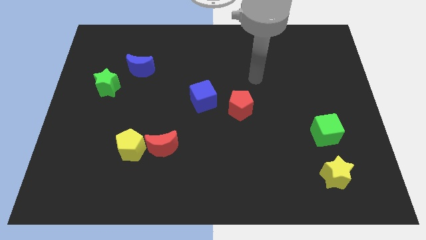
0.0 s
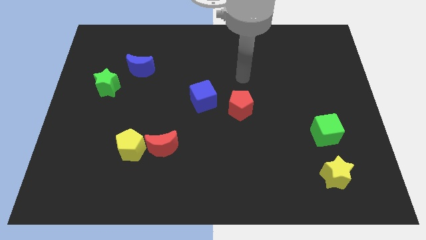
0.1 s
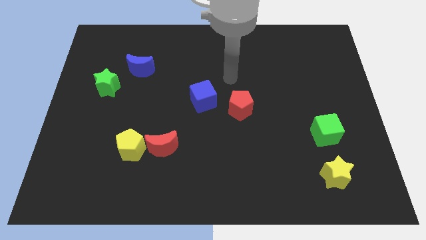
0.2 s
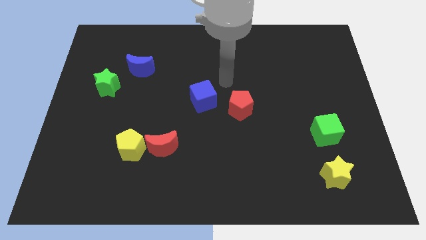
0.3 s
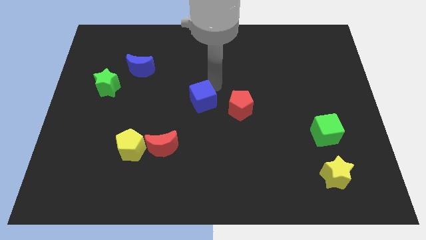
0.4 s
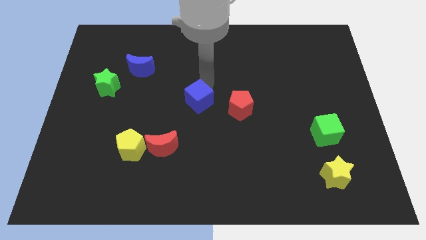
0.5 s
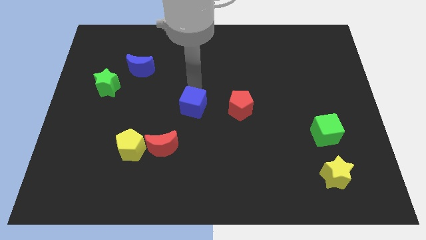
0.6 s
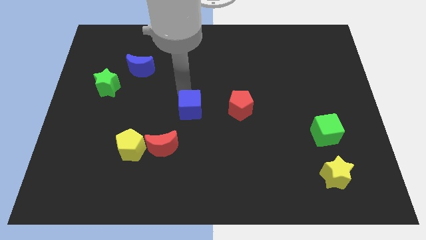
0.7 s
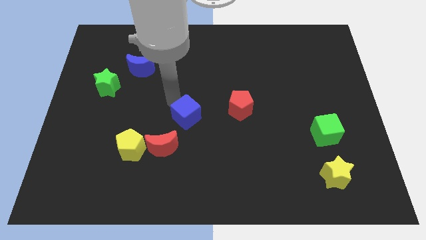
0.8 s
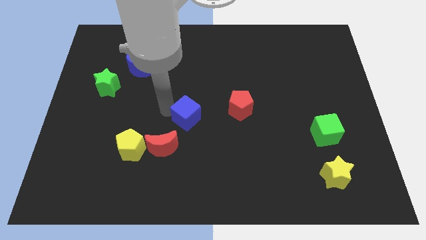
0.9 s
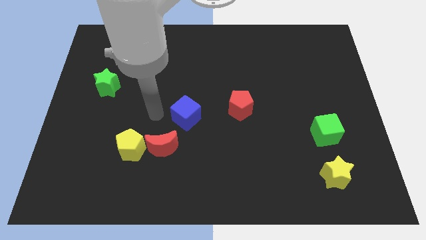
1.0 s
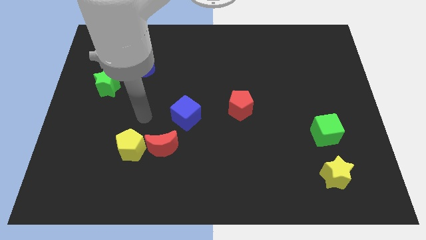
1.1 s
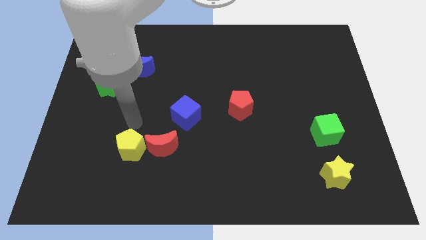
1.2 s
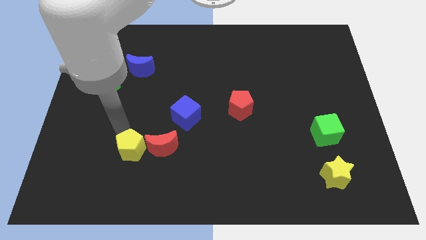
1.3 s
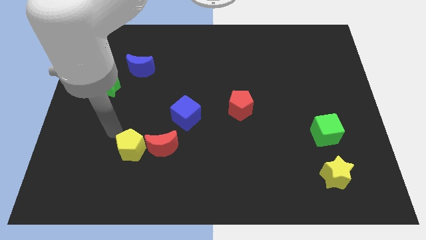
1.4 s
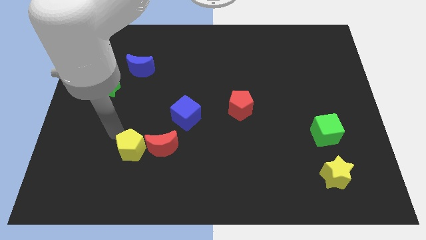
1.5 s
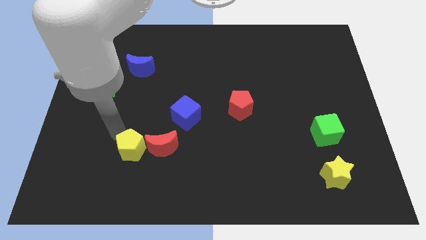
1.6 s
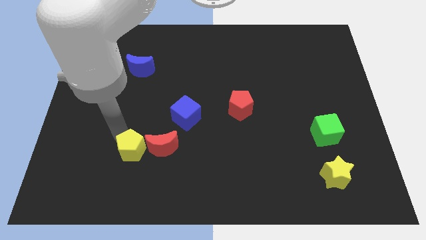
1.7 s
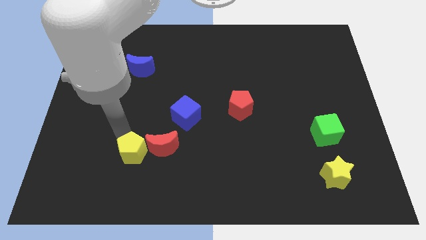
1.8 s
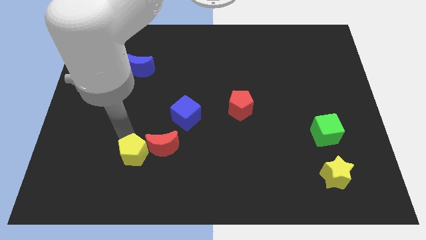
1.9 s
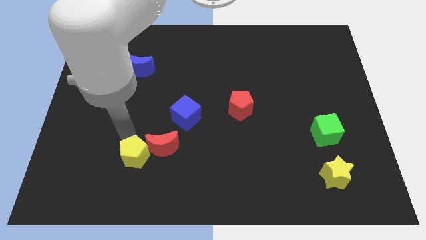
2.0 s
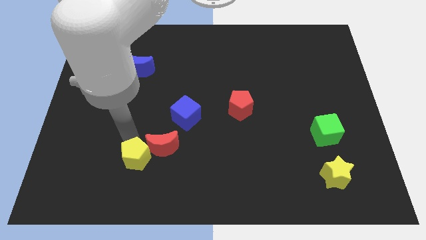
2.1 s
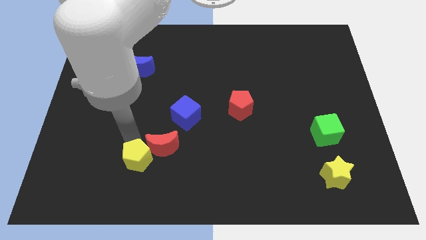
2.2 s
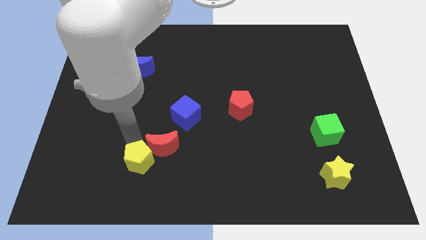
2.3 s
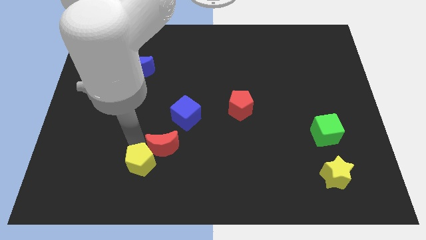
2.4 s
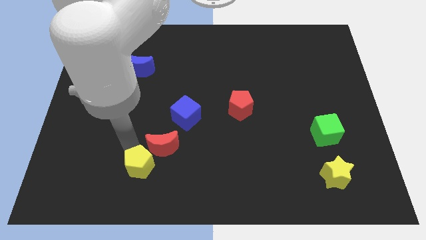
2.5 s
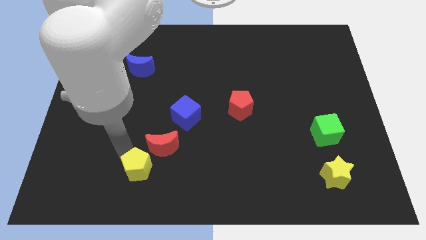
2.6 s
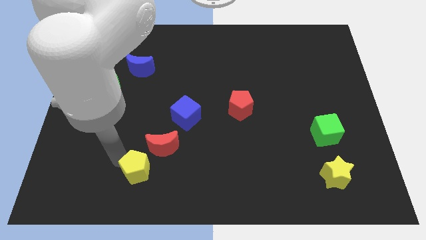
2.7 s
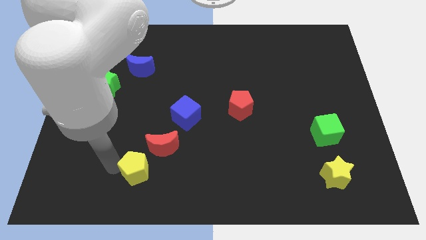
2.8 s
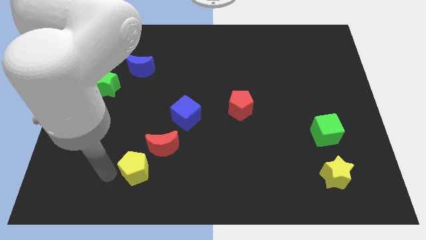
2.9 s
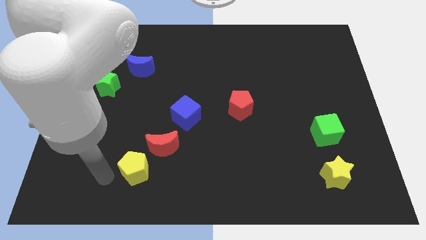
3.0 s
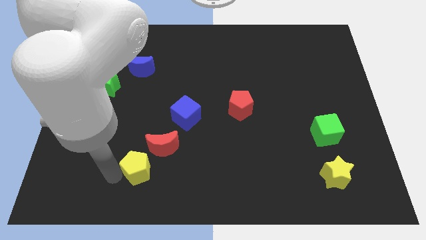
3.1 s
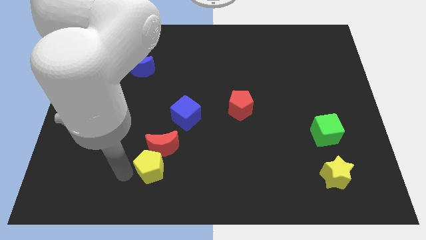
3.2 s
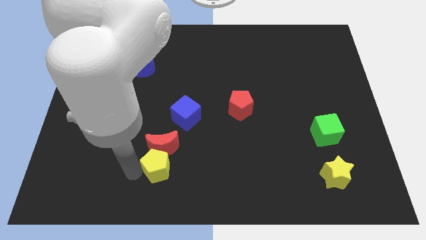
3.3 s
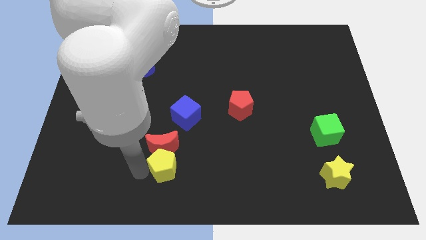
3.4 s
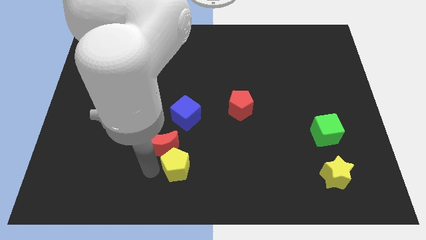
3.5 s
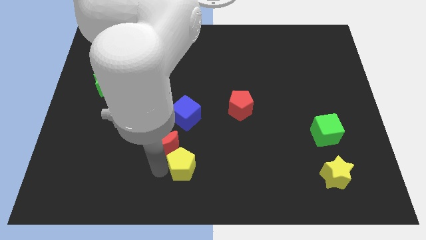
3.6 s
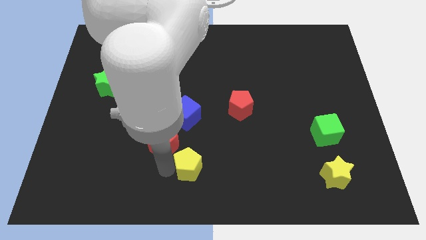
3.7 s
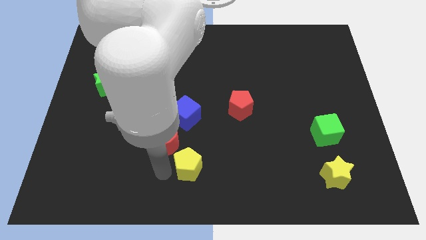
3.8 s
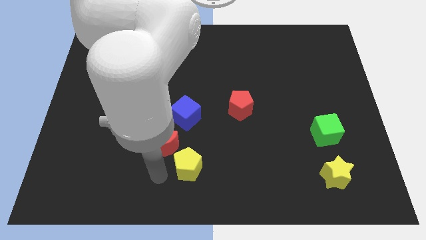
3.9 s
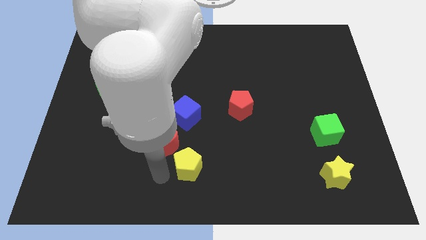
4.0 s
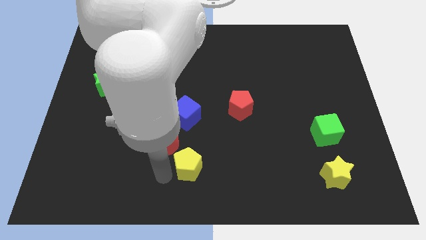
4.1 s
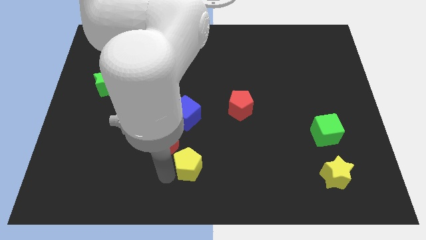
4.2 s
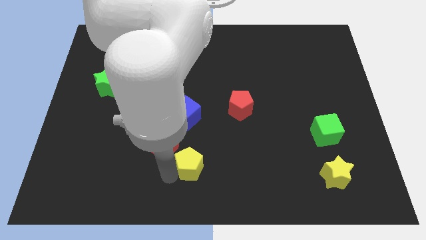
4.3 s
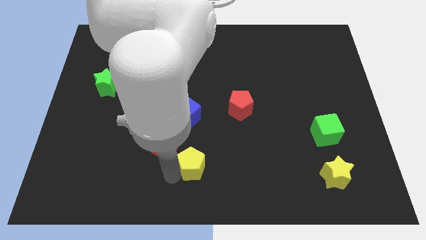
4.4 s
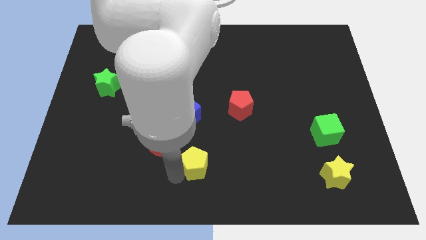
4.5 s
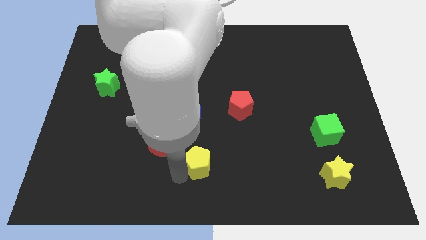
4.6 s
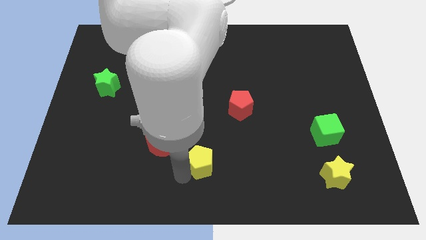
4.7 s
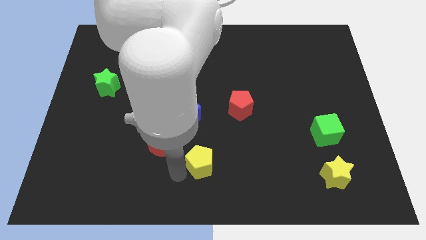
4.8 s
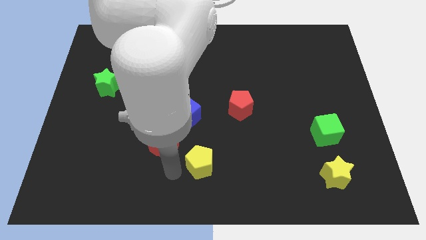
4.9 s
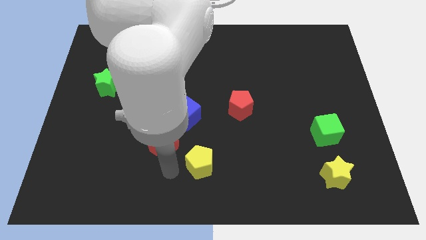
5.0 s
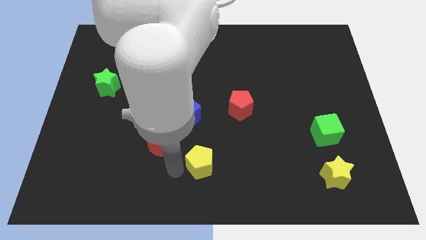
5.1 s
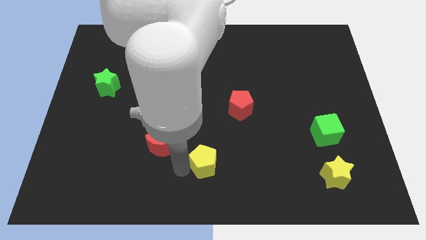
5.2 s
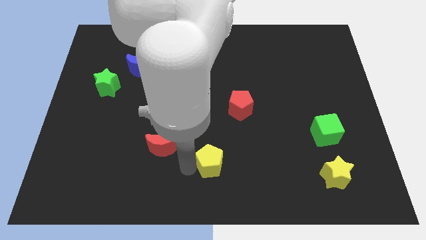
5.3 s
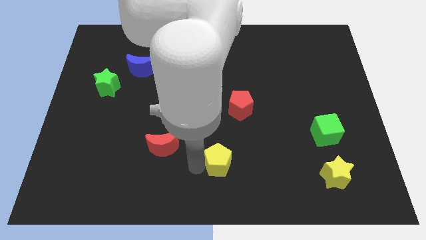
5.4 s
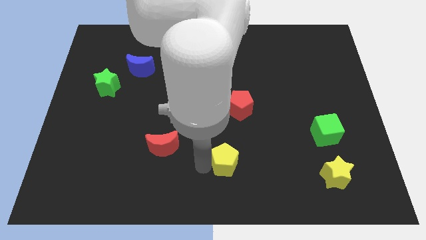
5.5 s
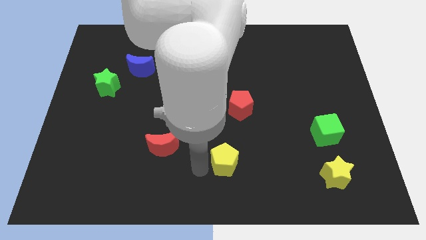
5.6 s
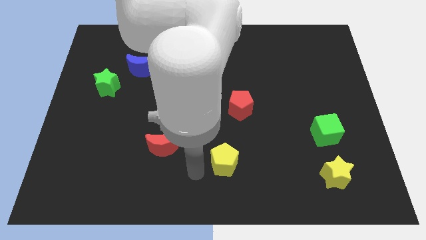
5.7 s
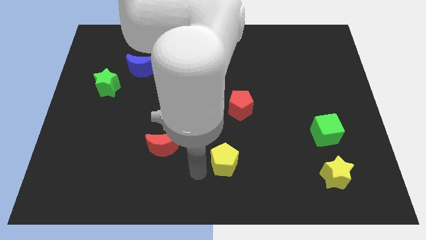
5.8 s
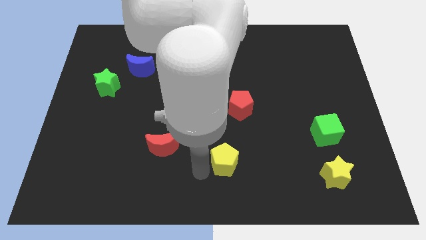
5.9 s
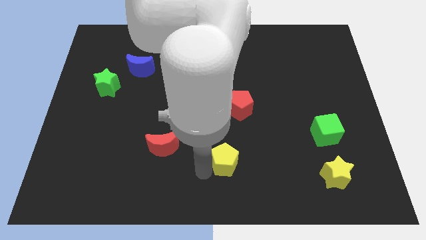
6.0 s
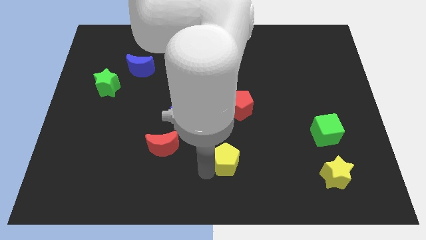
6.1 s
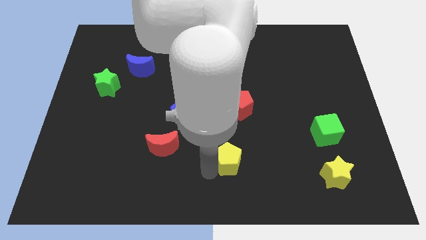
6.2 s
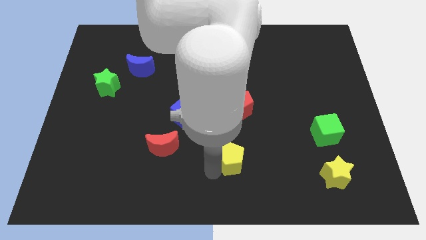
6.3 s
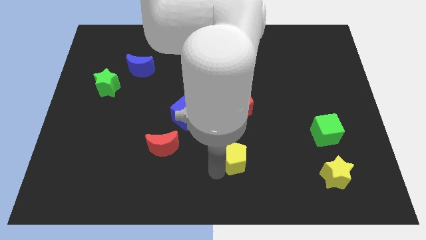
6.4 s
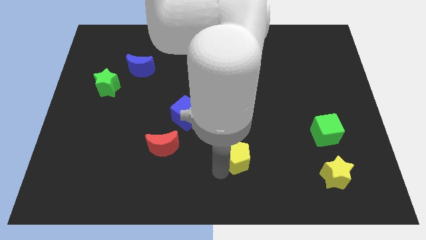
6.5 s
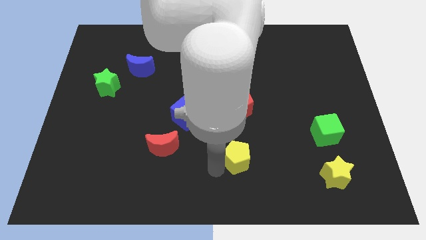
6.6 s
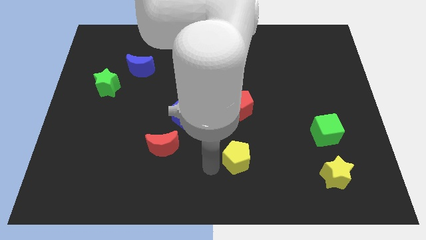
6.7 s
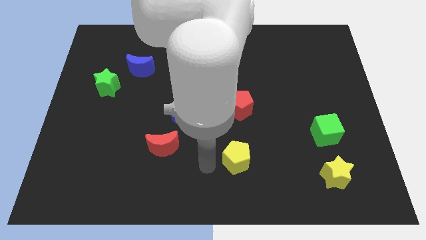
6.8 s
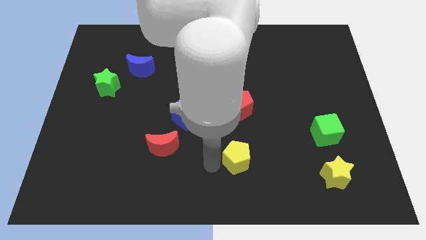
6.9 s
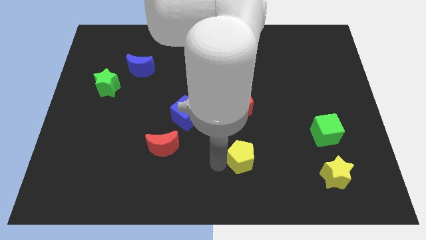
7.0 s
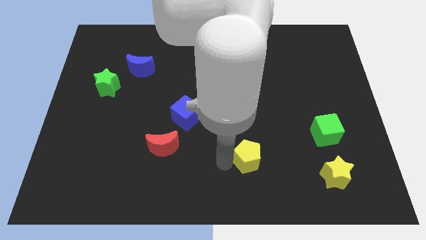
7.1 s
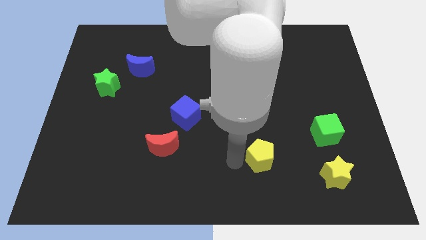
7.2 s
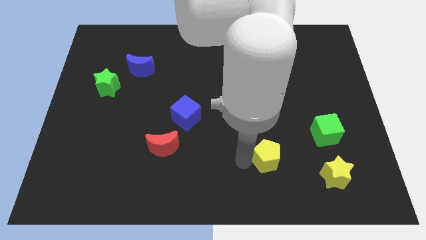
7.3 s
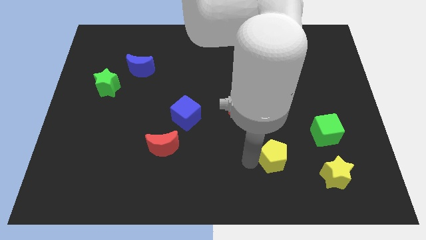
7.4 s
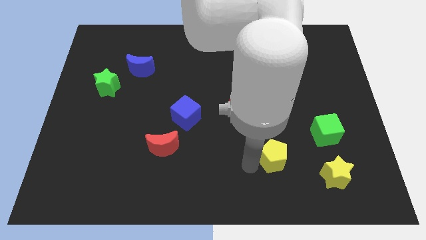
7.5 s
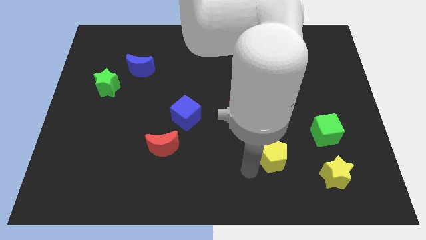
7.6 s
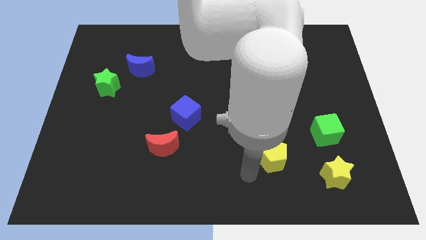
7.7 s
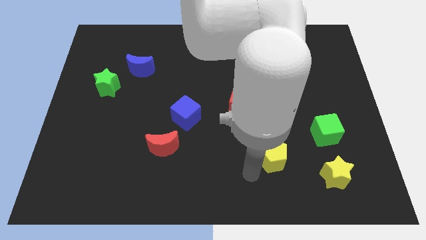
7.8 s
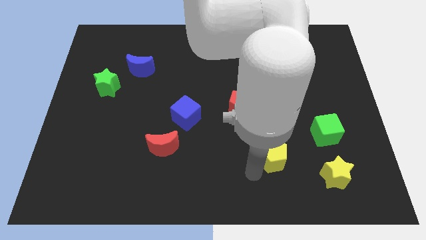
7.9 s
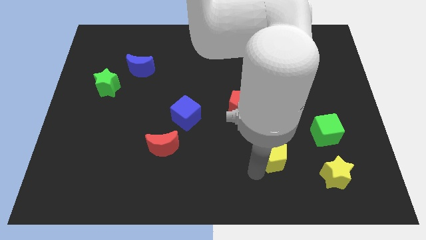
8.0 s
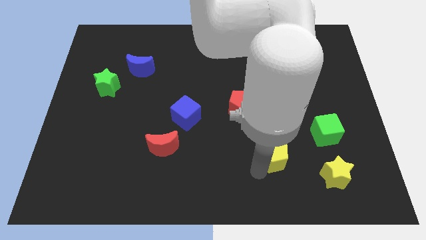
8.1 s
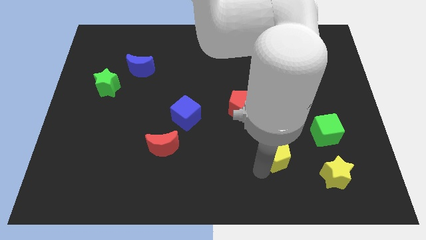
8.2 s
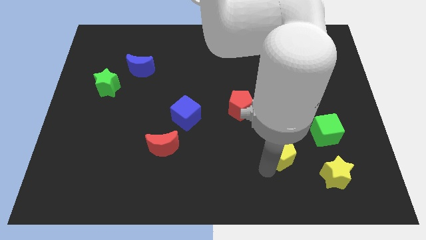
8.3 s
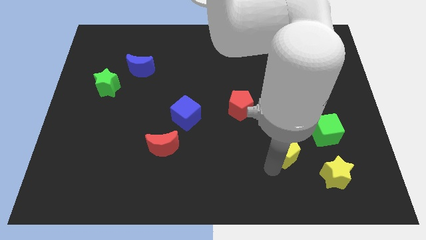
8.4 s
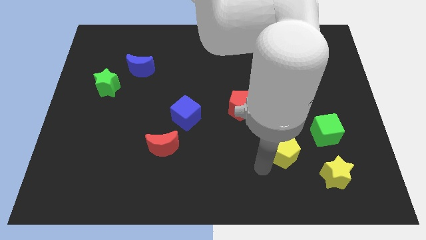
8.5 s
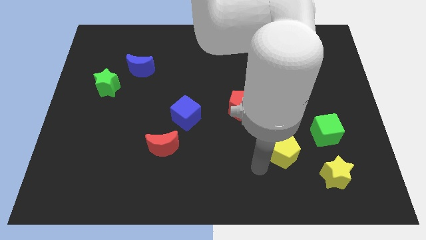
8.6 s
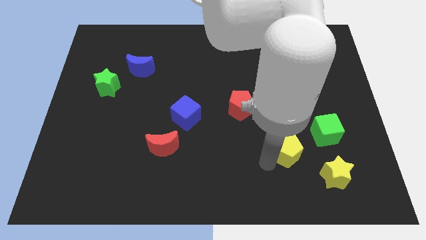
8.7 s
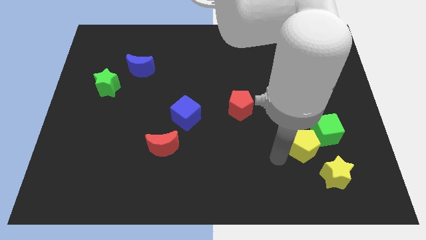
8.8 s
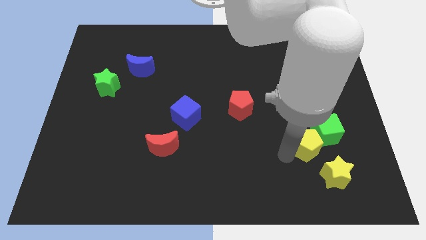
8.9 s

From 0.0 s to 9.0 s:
move the yellow pentagon next to the green cube
